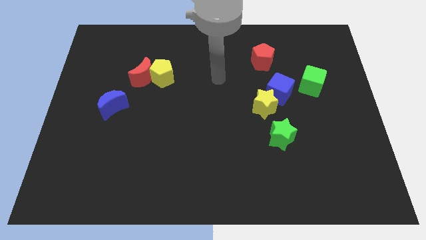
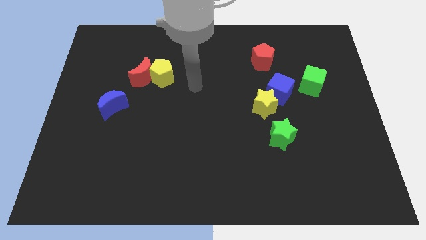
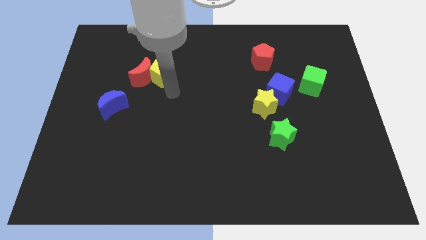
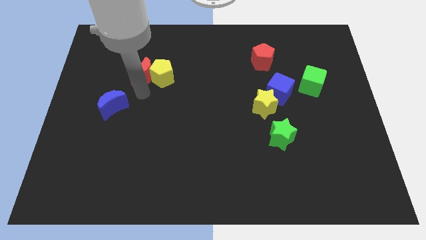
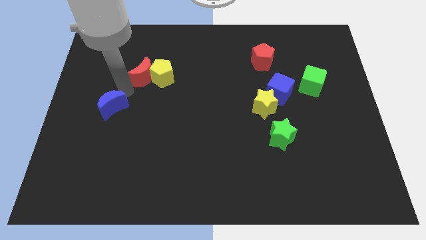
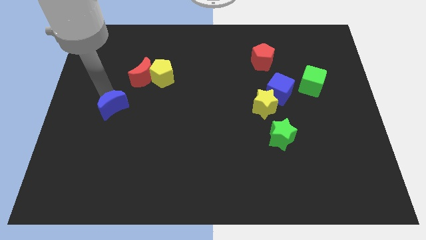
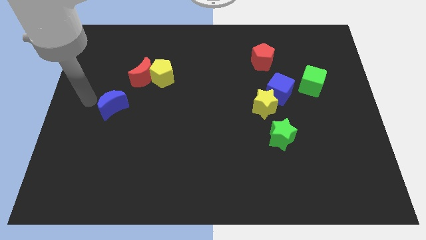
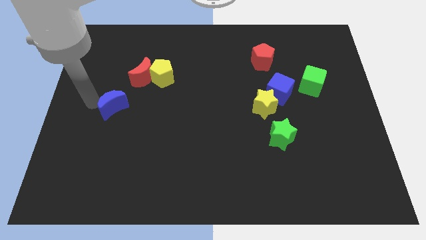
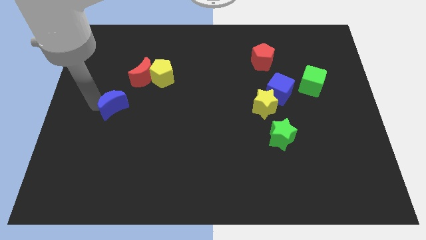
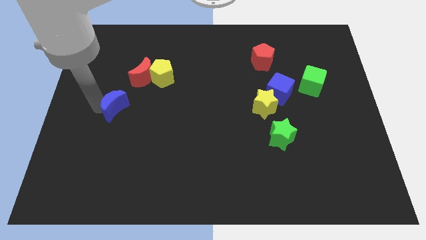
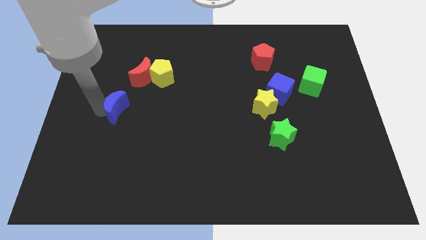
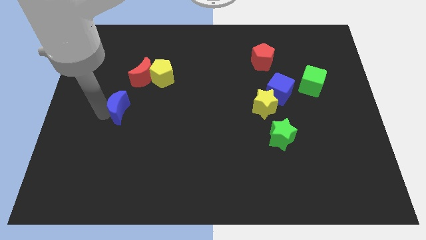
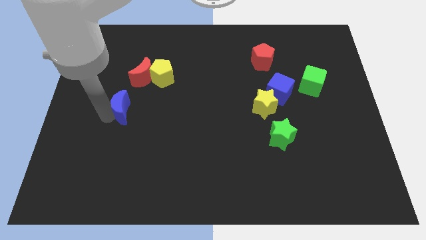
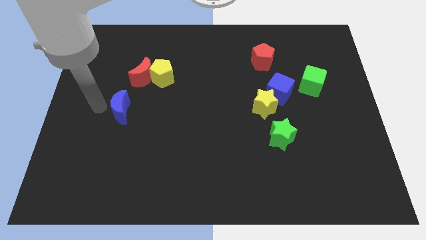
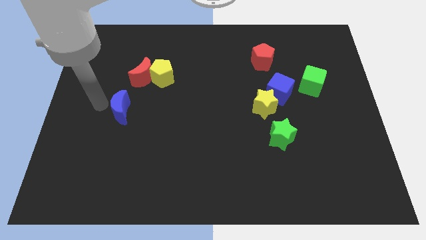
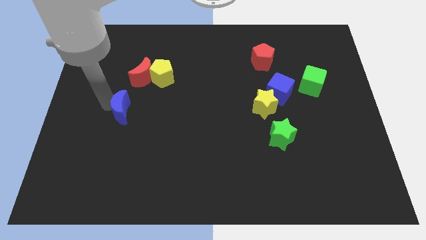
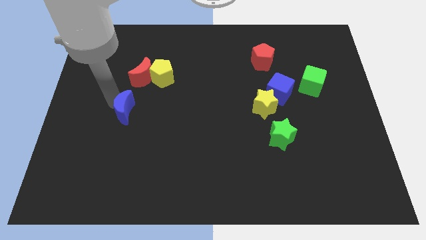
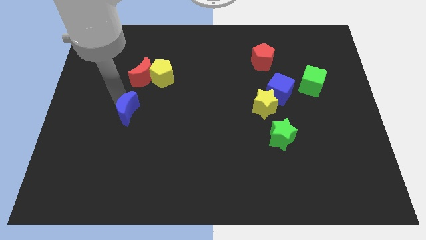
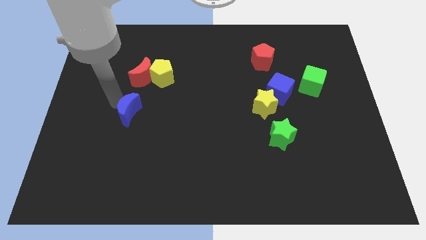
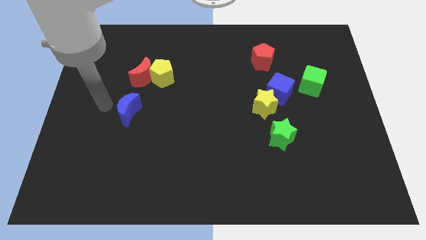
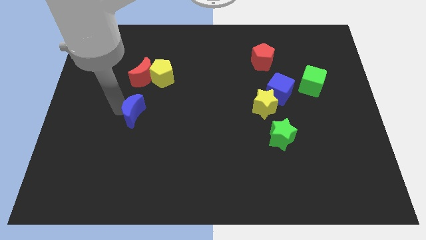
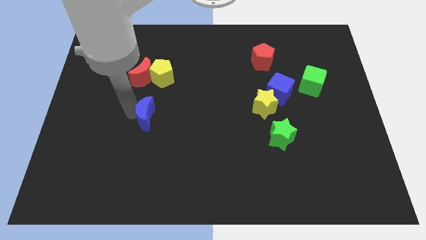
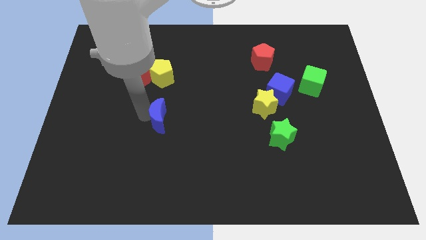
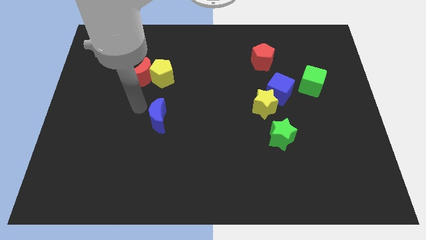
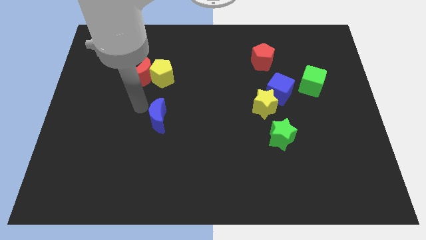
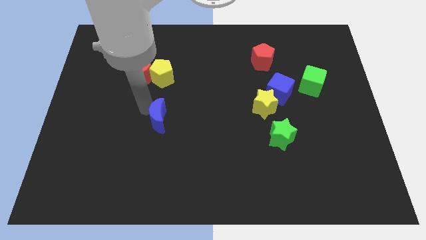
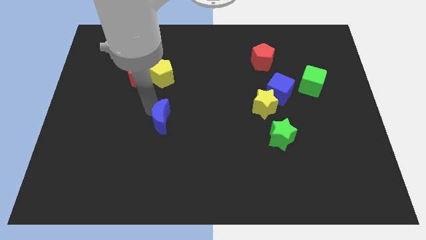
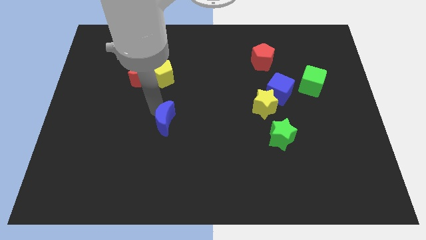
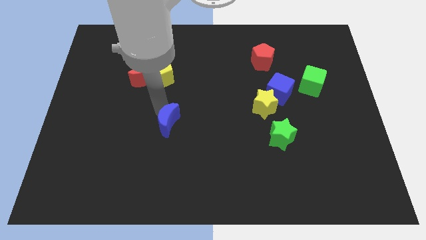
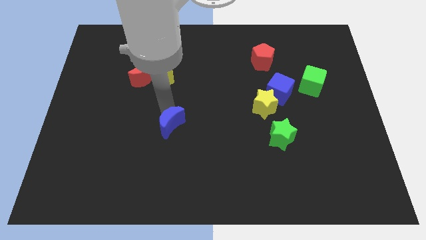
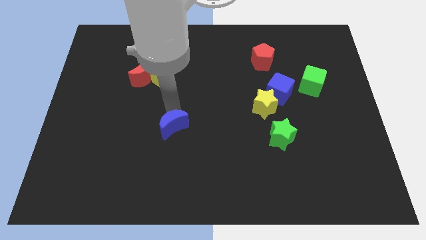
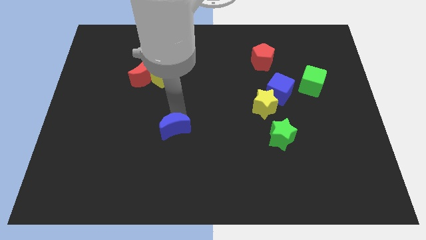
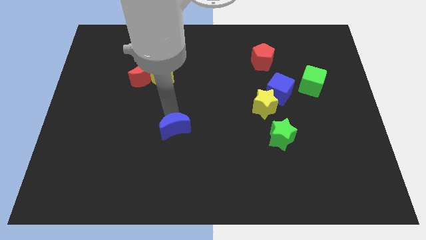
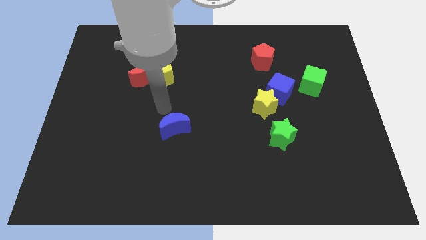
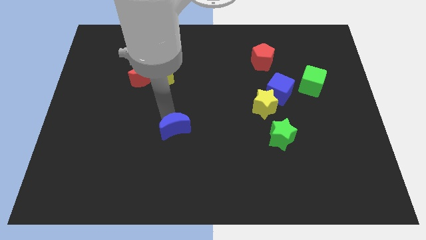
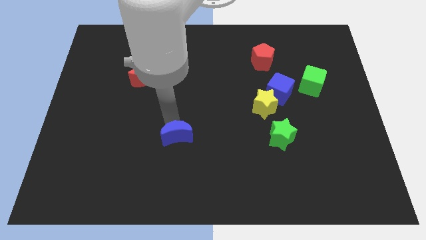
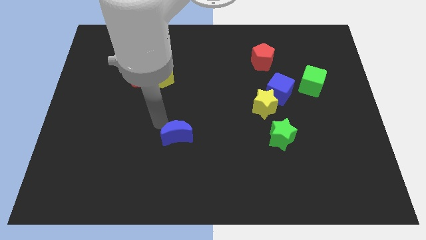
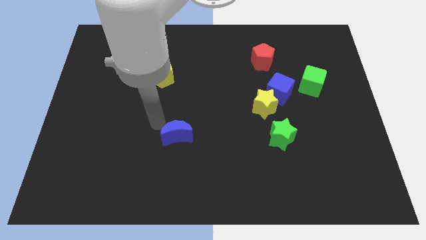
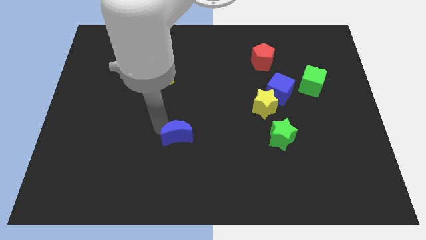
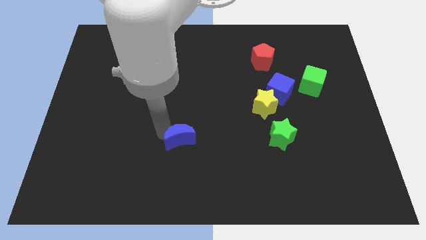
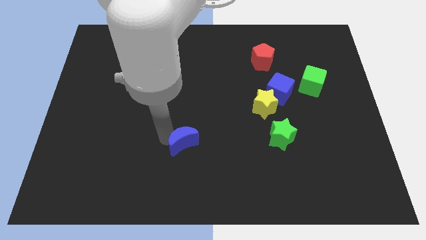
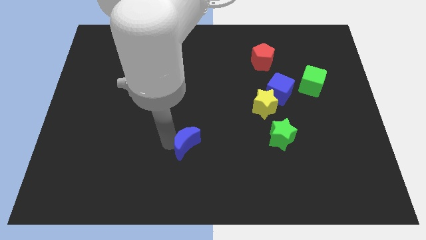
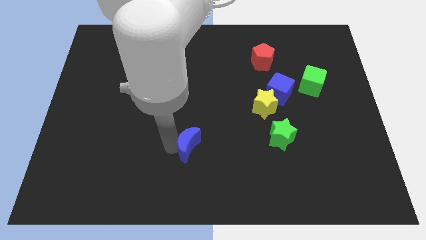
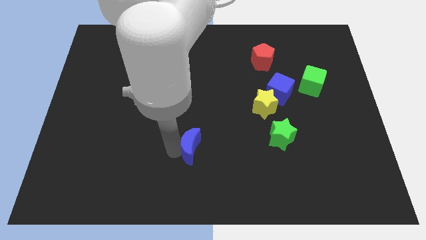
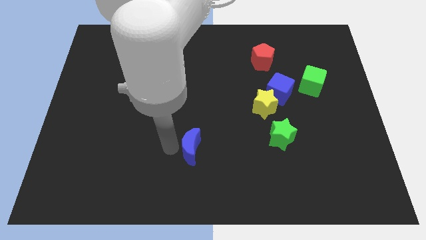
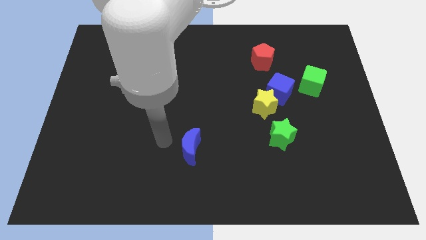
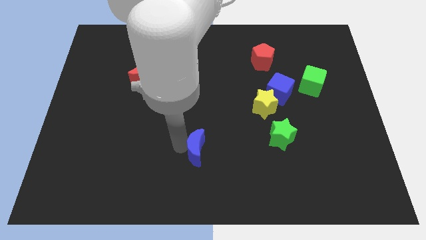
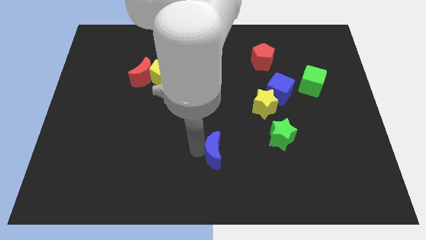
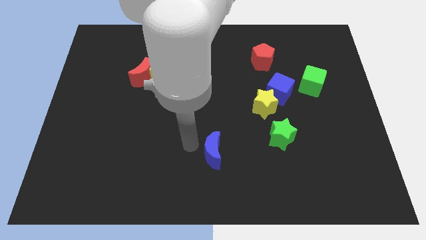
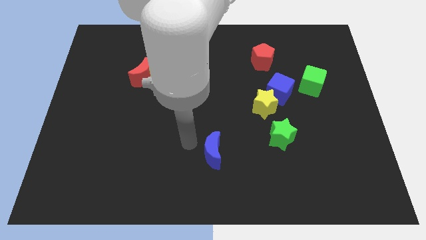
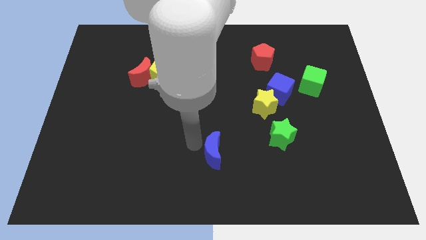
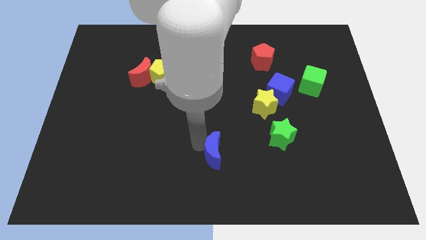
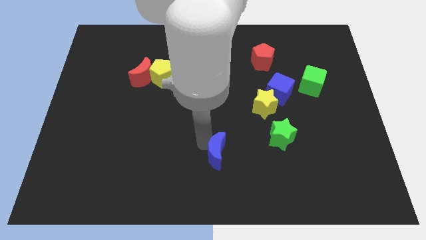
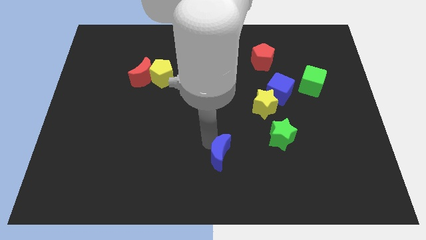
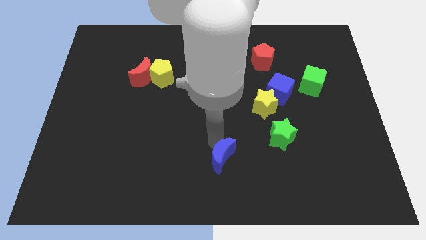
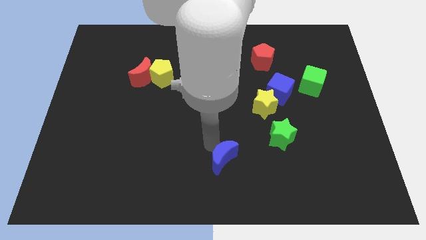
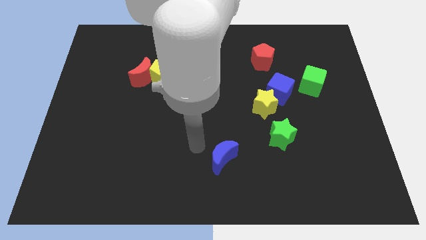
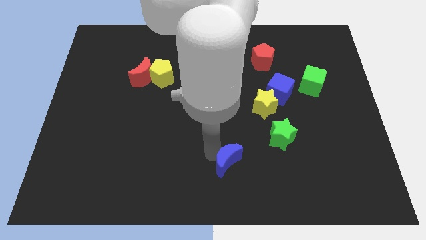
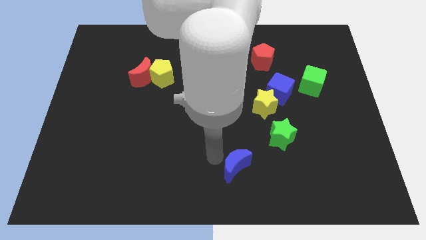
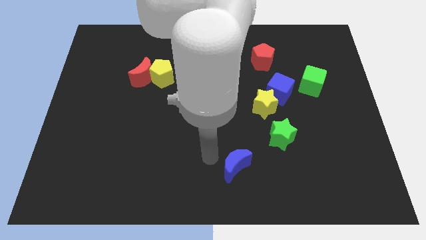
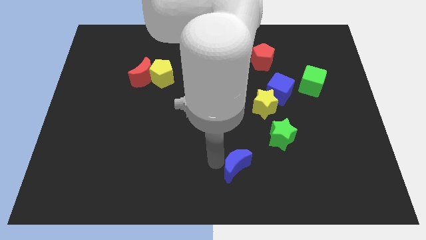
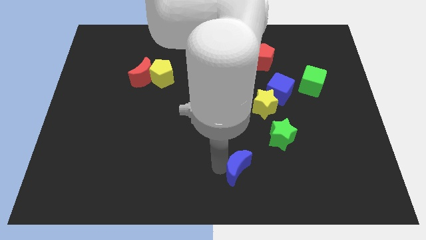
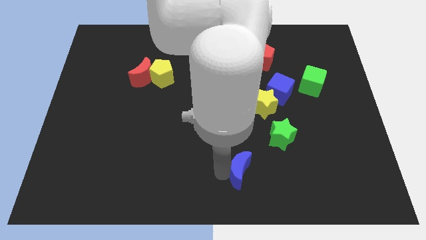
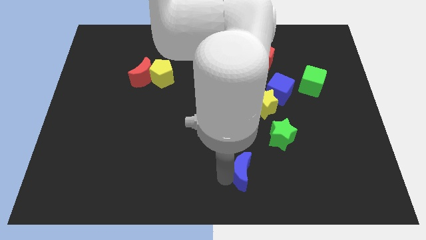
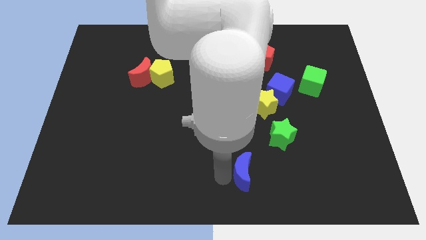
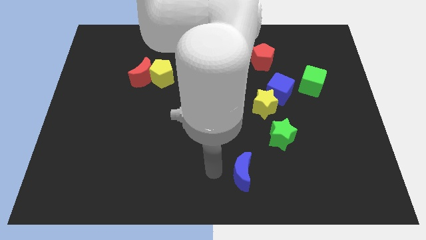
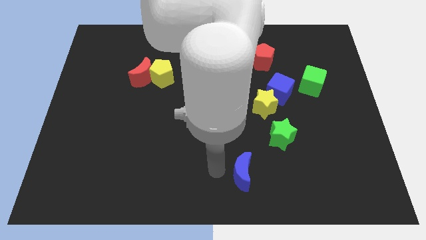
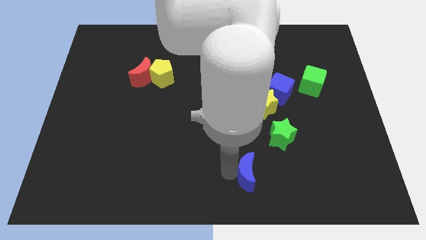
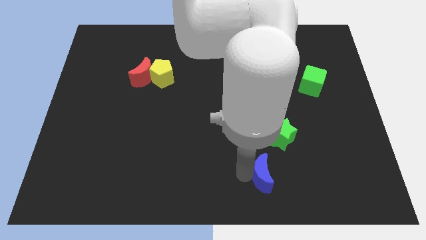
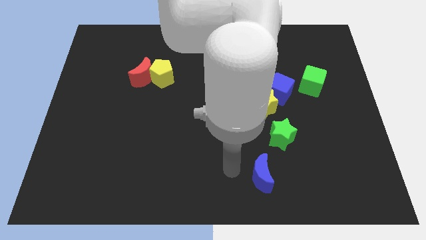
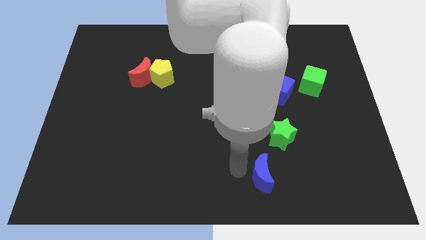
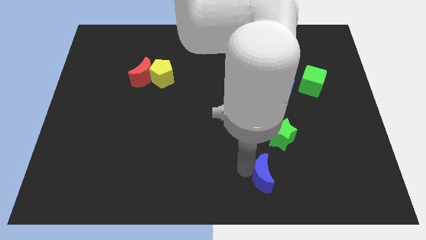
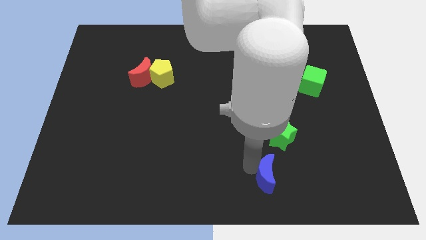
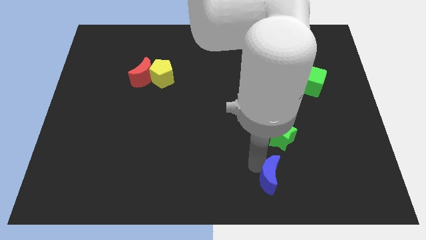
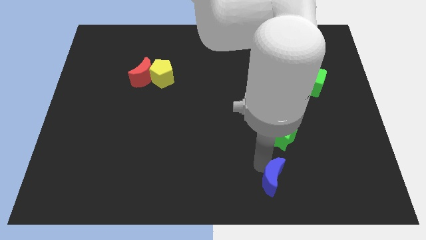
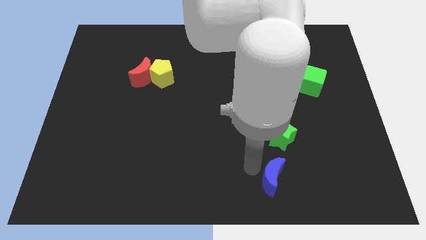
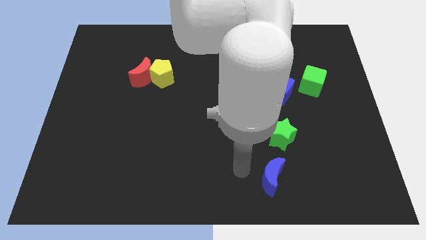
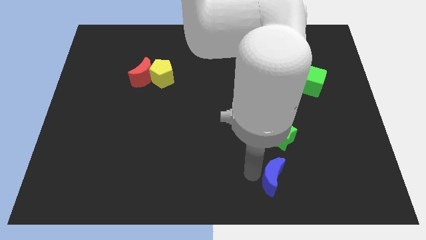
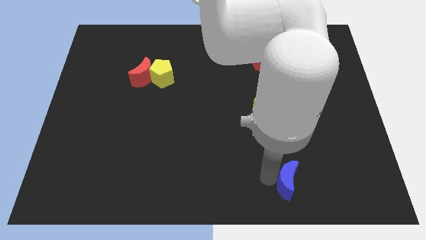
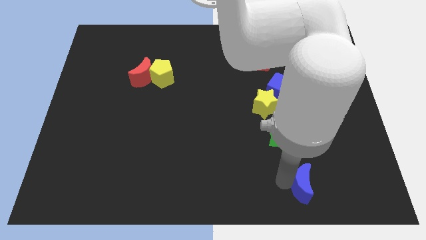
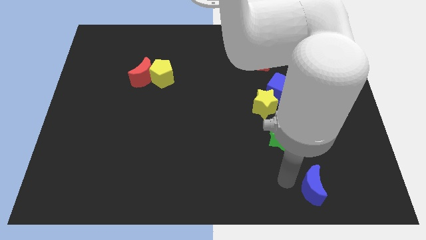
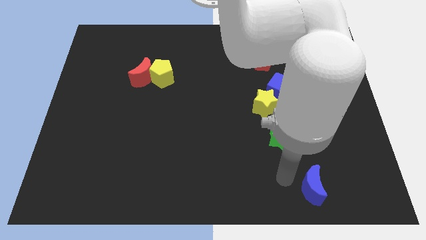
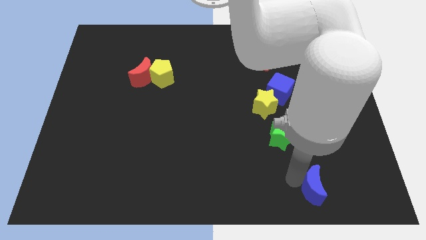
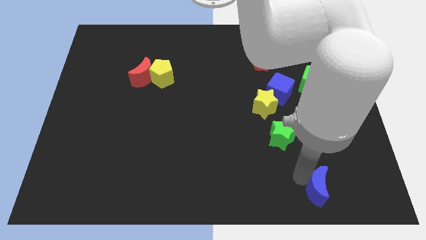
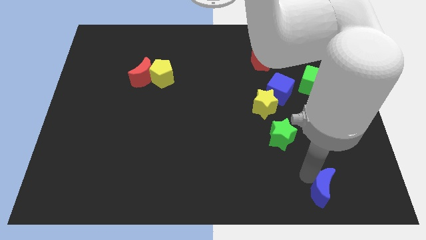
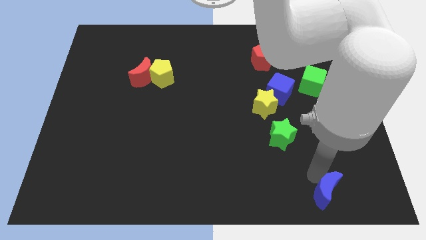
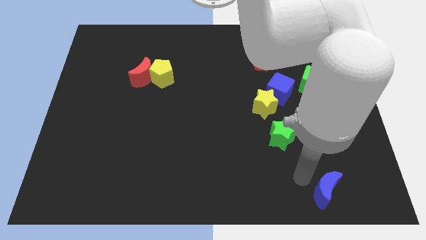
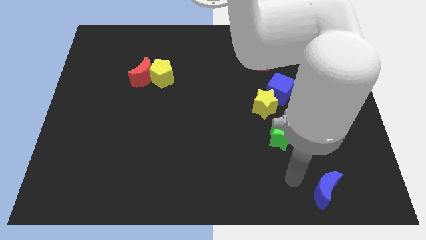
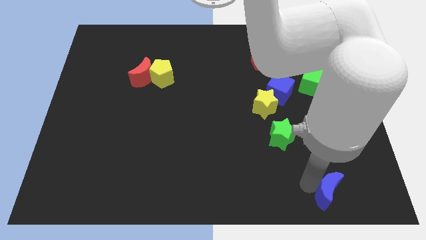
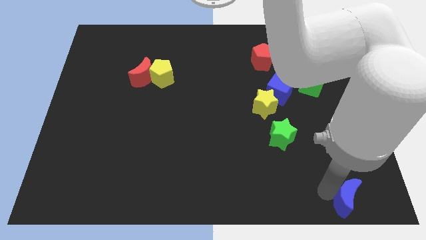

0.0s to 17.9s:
move the blue moon to the lower right corner
